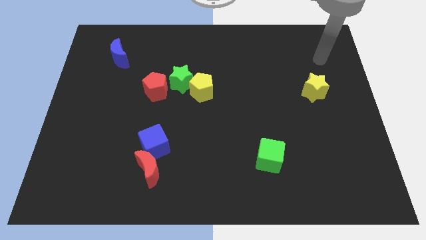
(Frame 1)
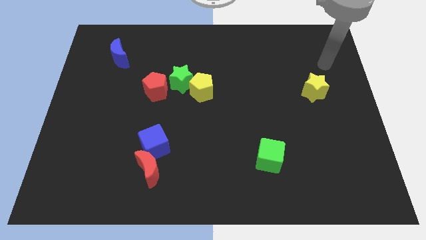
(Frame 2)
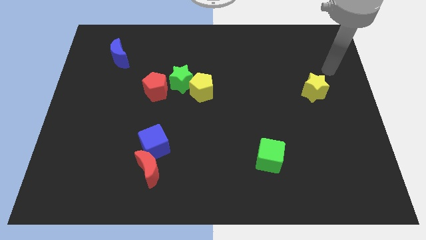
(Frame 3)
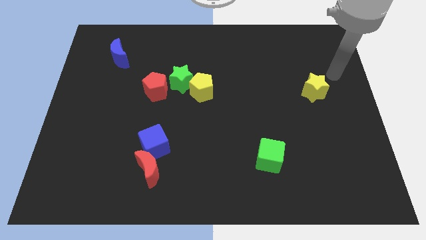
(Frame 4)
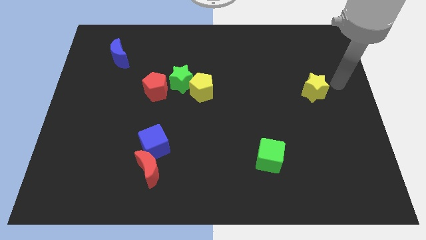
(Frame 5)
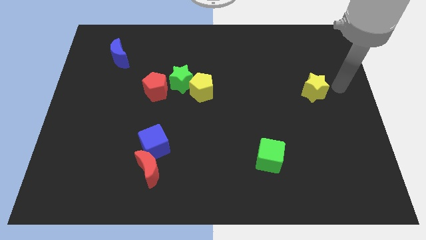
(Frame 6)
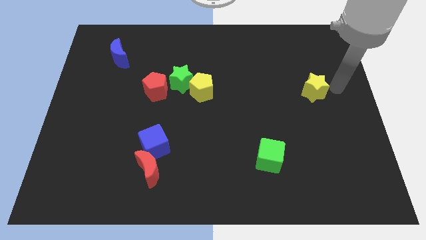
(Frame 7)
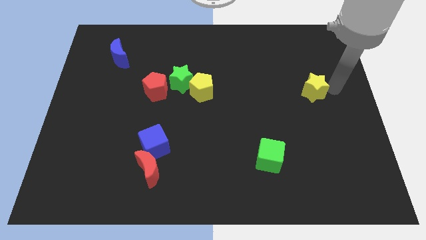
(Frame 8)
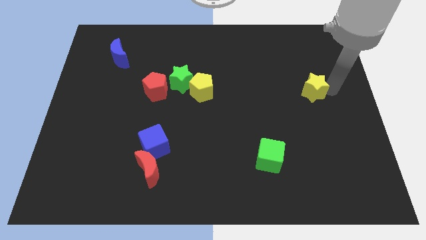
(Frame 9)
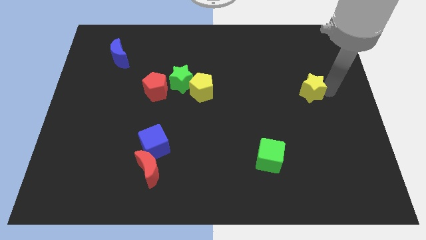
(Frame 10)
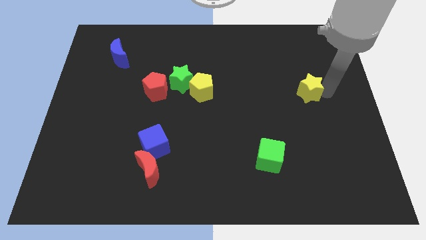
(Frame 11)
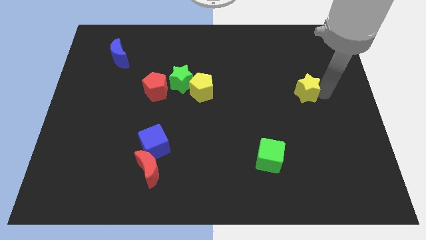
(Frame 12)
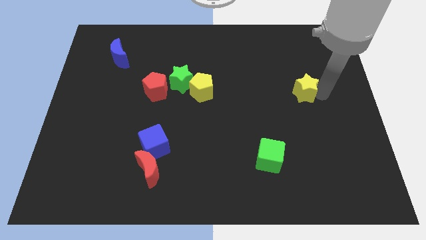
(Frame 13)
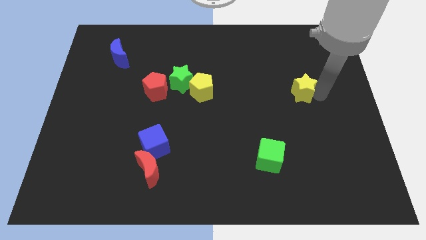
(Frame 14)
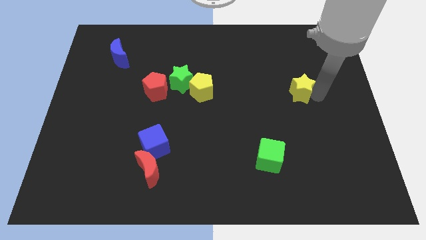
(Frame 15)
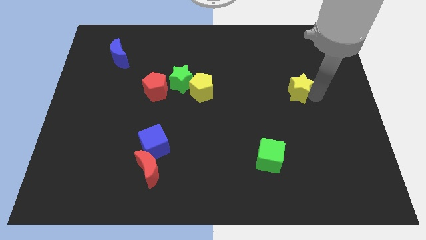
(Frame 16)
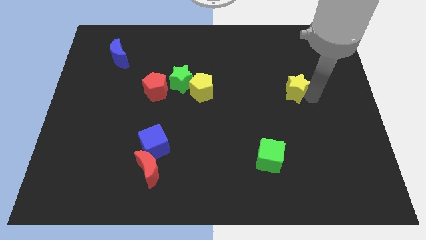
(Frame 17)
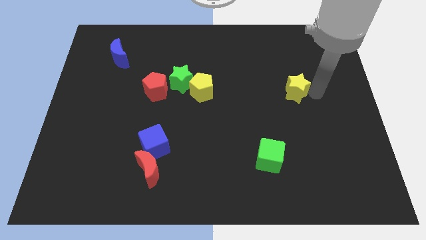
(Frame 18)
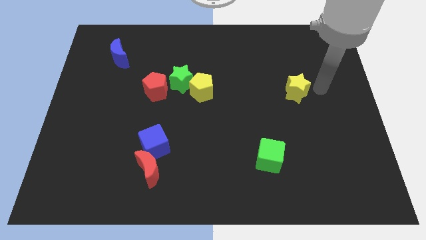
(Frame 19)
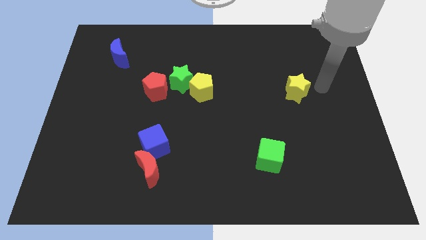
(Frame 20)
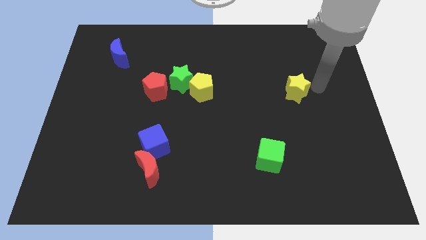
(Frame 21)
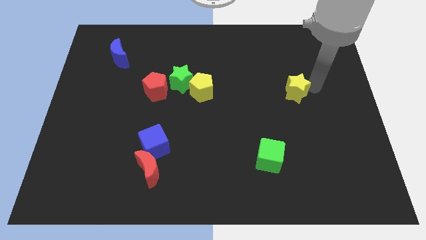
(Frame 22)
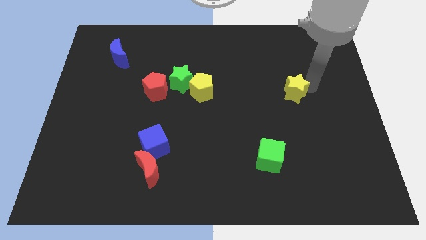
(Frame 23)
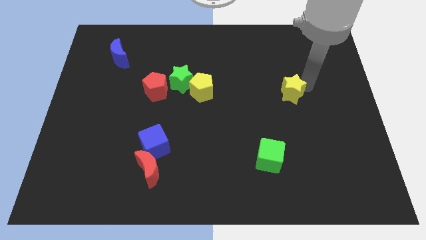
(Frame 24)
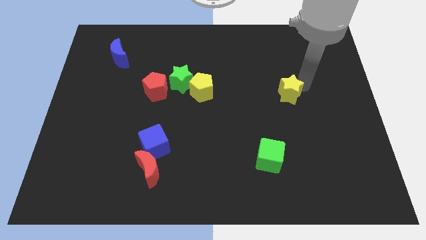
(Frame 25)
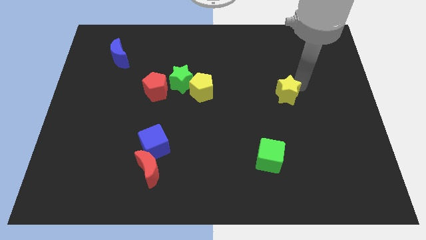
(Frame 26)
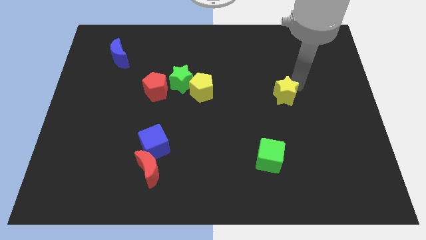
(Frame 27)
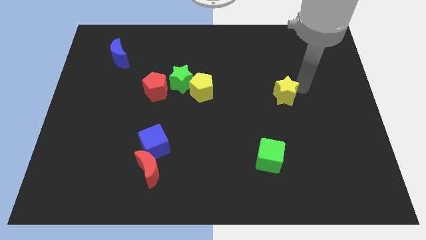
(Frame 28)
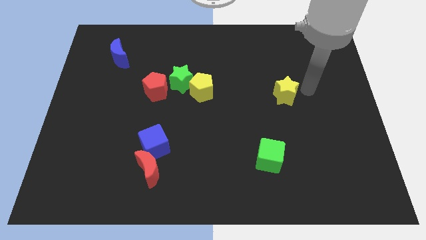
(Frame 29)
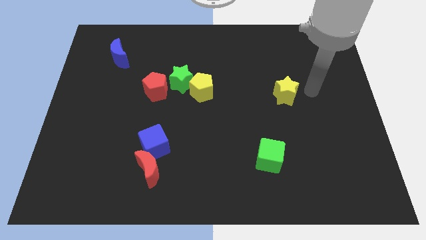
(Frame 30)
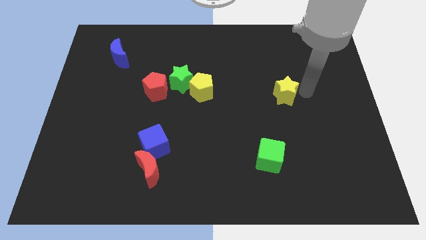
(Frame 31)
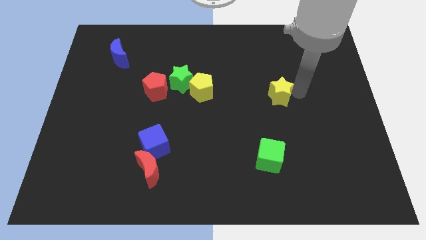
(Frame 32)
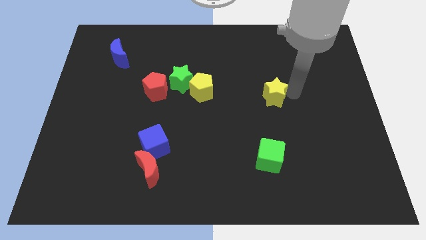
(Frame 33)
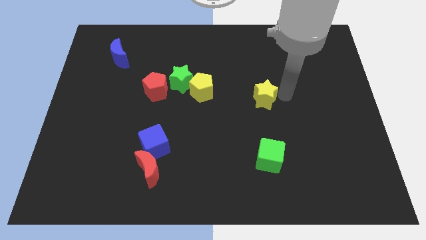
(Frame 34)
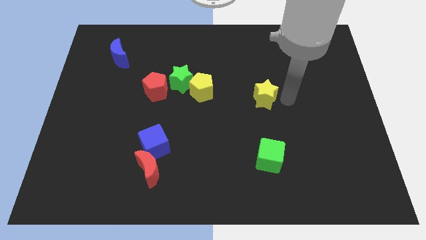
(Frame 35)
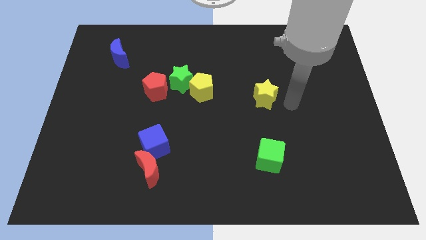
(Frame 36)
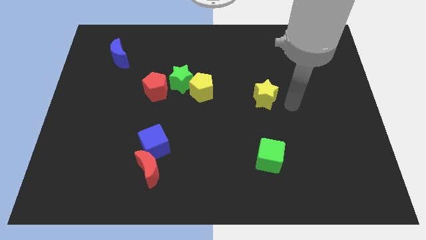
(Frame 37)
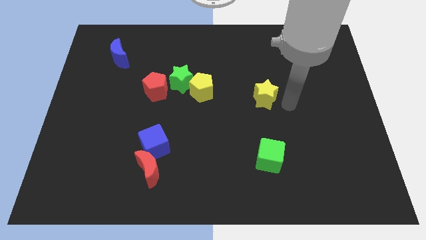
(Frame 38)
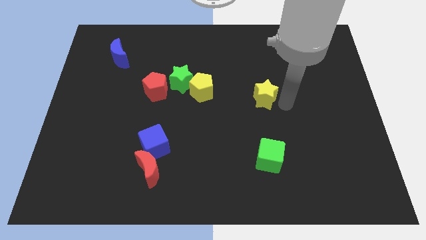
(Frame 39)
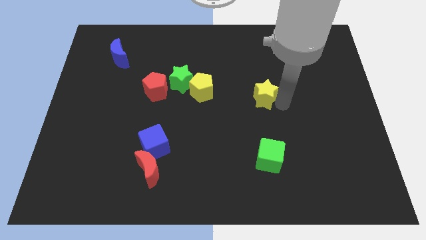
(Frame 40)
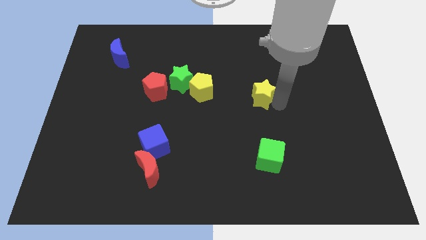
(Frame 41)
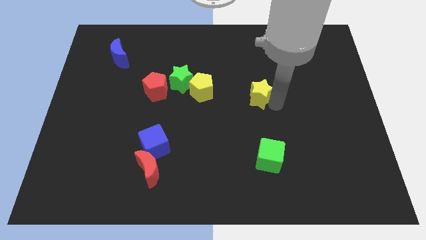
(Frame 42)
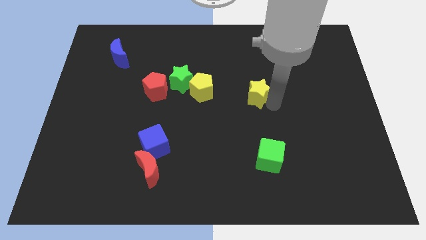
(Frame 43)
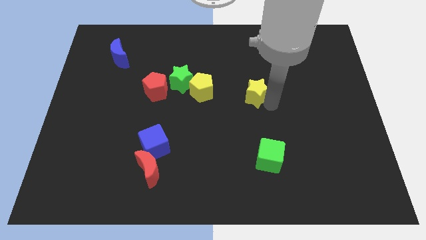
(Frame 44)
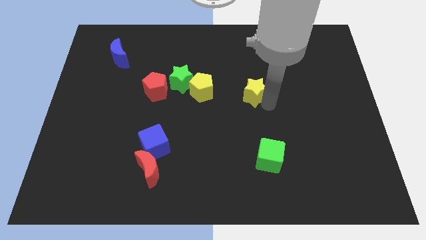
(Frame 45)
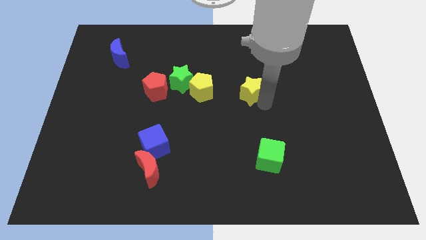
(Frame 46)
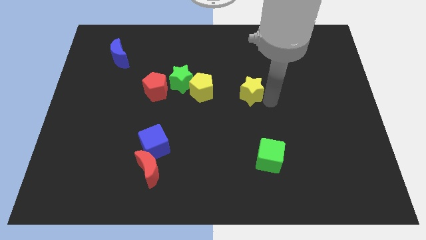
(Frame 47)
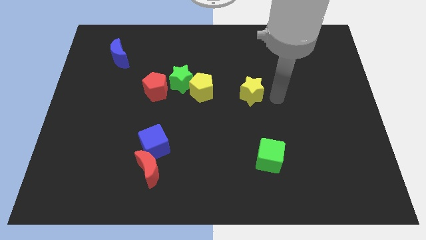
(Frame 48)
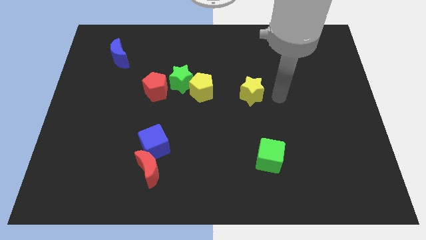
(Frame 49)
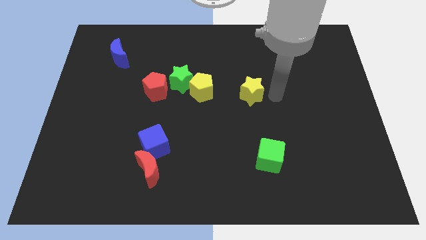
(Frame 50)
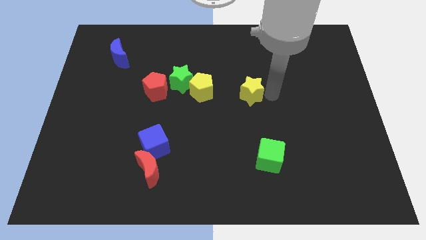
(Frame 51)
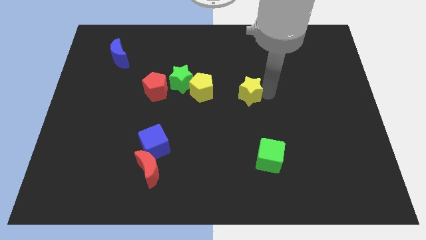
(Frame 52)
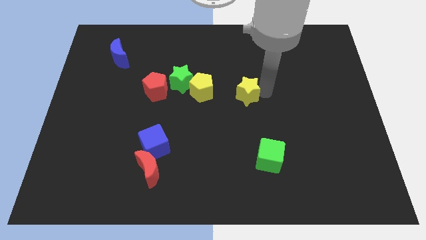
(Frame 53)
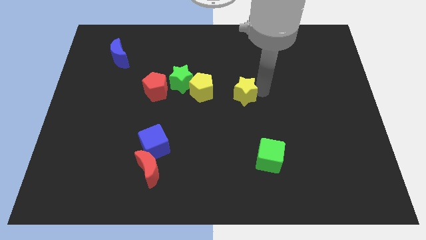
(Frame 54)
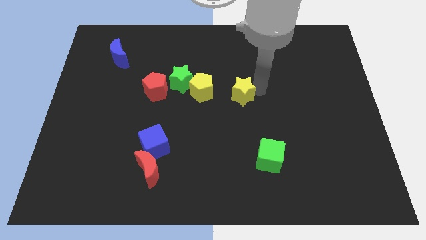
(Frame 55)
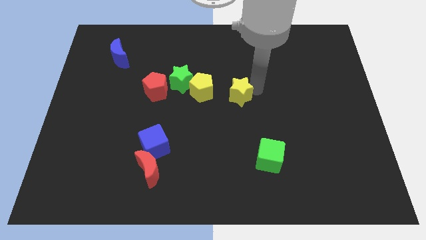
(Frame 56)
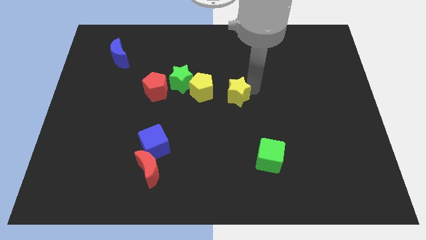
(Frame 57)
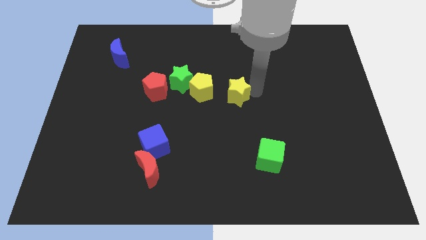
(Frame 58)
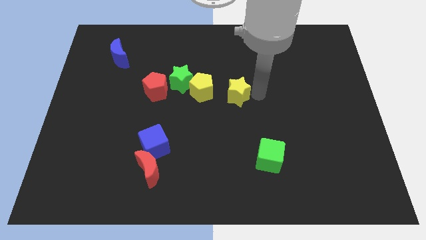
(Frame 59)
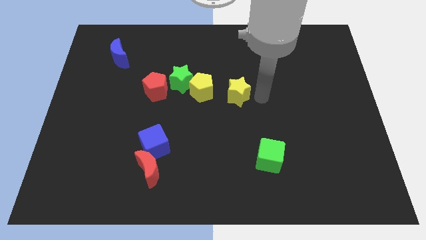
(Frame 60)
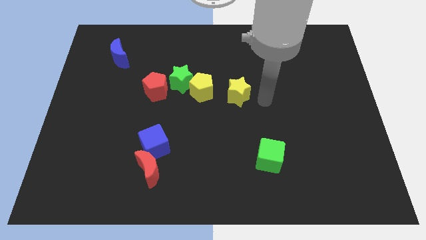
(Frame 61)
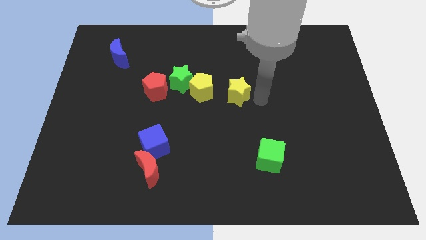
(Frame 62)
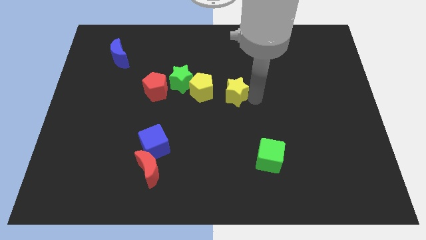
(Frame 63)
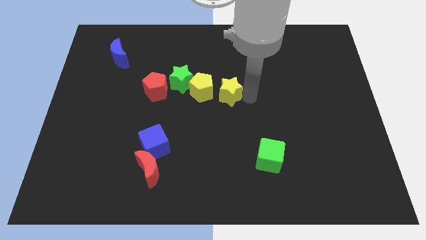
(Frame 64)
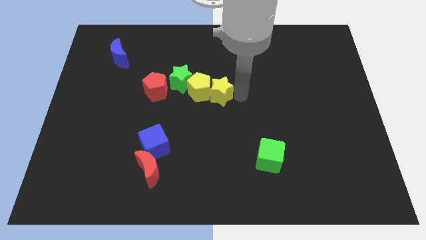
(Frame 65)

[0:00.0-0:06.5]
slide the yellow star to the right side of the red pentagon
